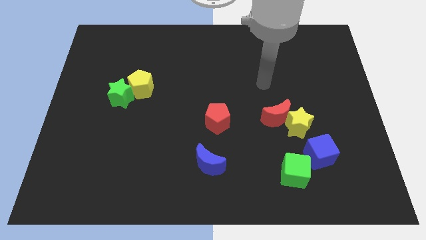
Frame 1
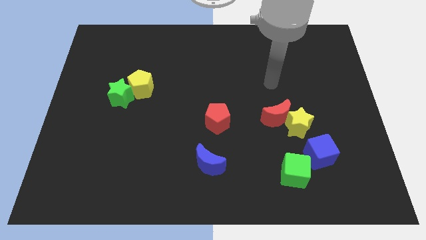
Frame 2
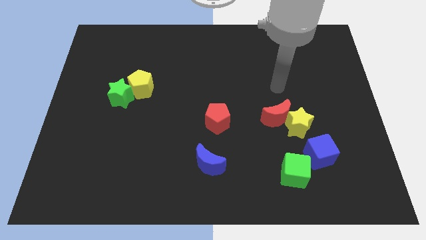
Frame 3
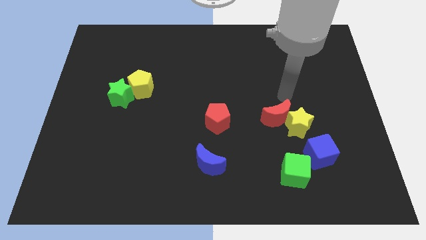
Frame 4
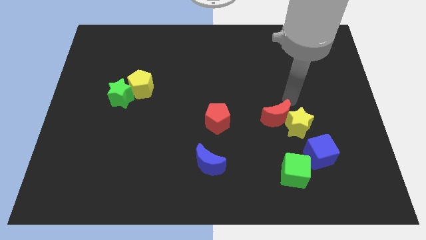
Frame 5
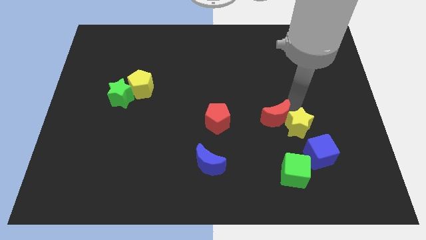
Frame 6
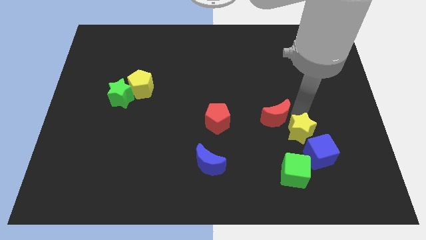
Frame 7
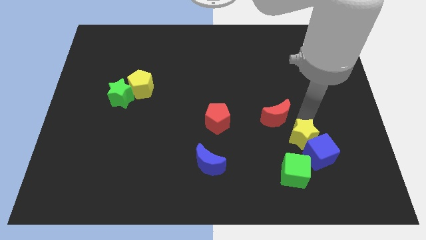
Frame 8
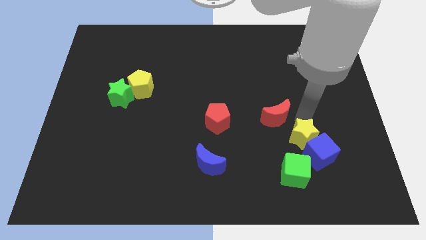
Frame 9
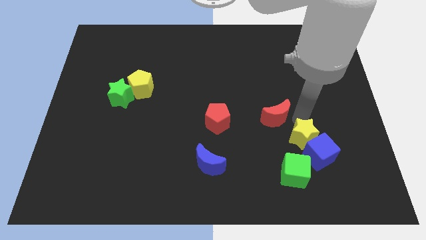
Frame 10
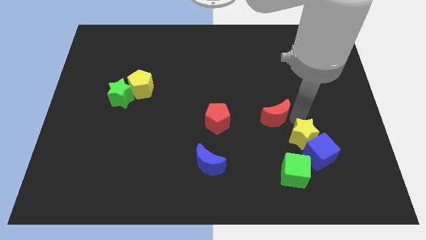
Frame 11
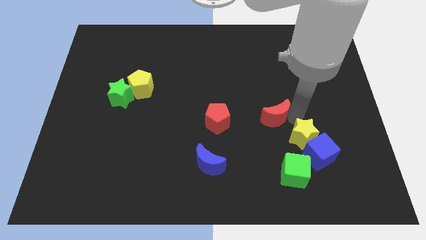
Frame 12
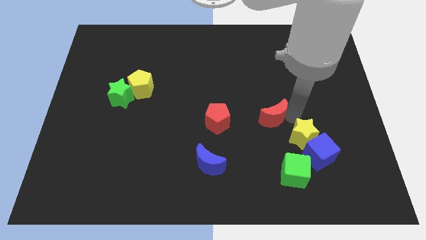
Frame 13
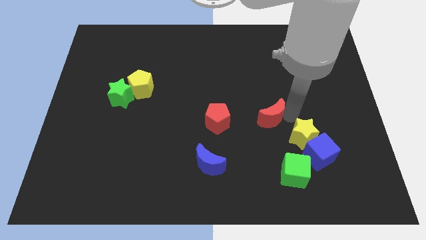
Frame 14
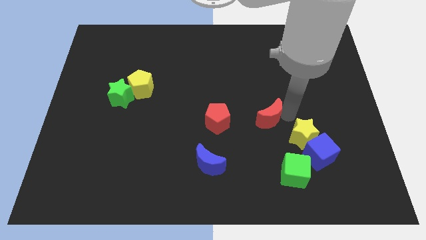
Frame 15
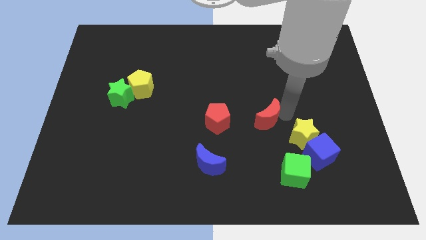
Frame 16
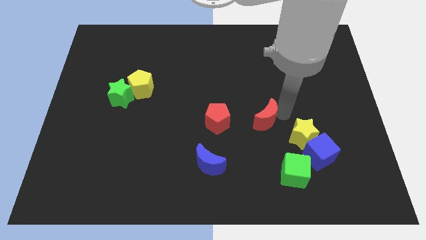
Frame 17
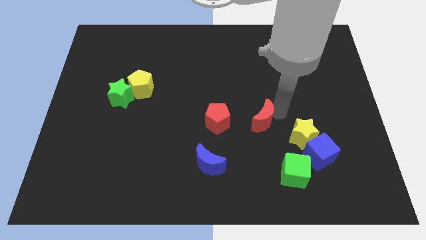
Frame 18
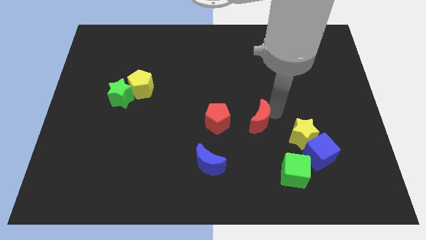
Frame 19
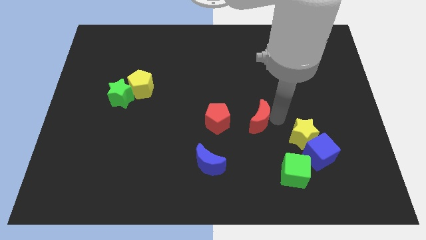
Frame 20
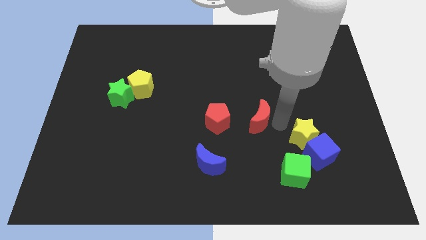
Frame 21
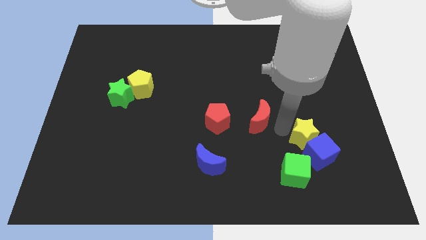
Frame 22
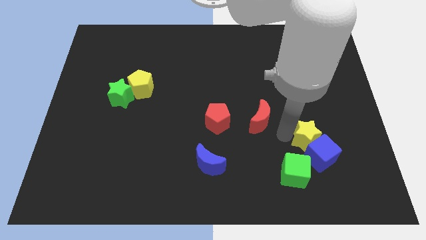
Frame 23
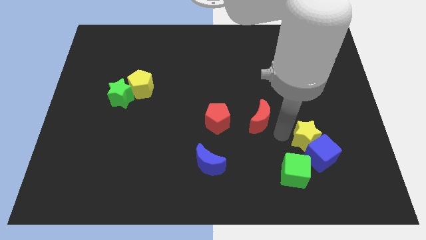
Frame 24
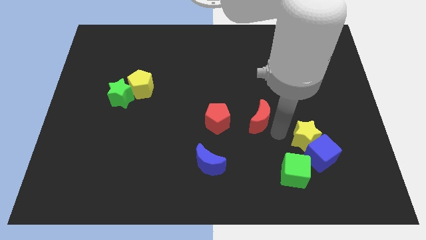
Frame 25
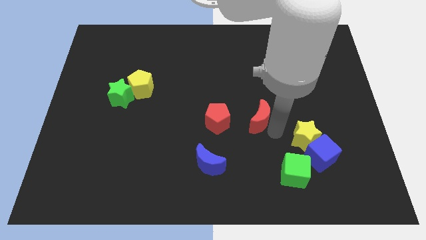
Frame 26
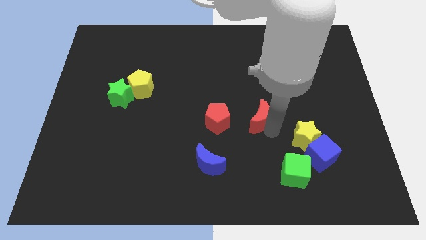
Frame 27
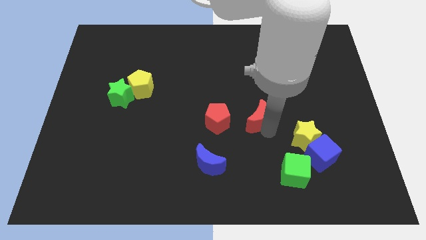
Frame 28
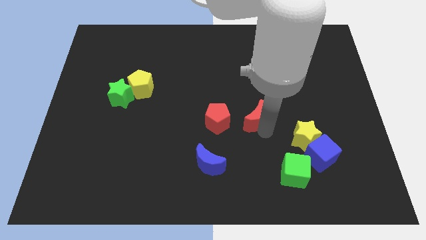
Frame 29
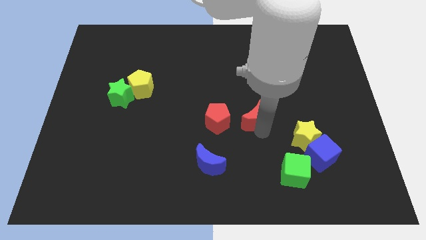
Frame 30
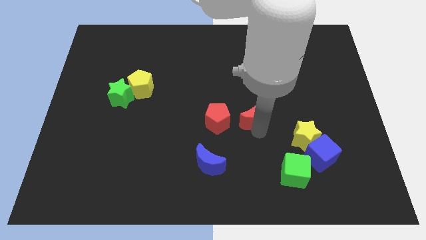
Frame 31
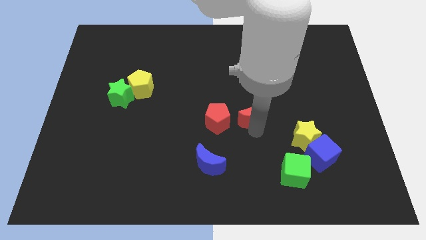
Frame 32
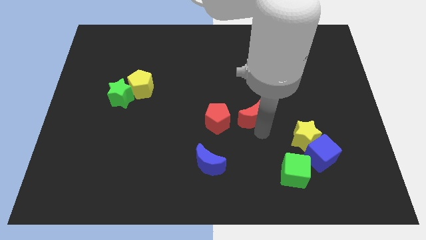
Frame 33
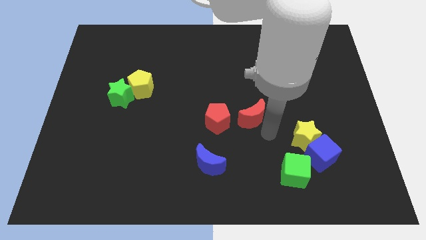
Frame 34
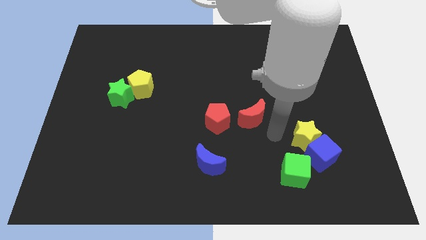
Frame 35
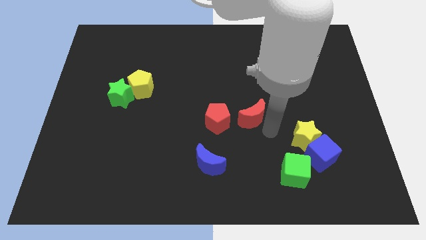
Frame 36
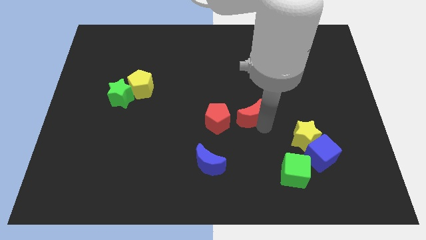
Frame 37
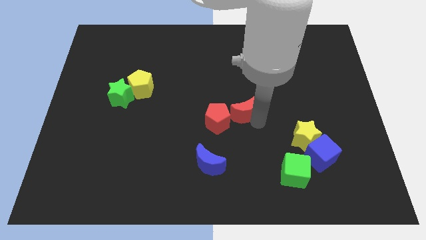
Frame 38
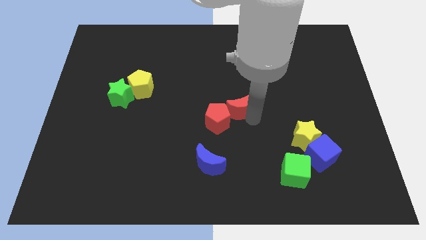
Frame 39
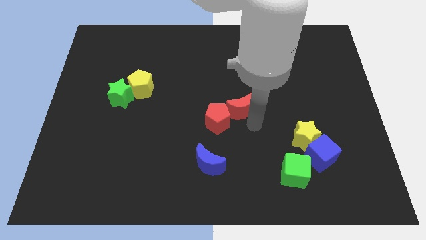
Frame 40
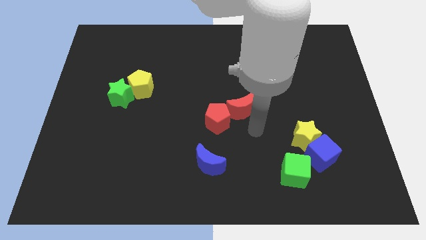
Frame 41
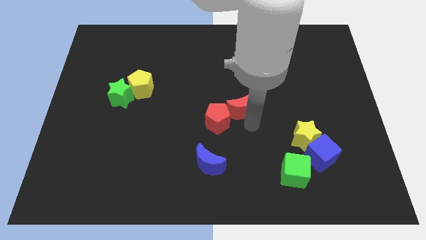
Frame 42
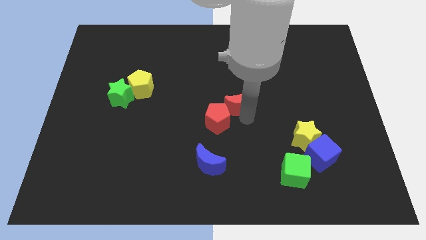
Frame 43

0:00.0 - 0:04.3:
push the red moon upwards and left slightly

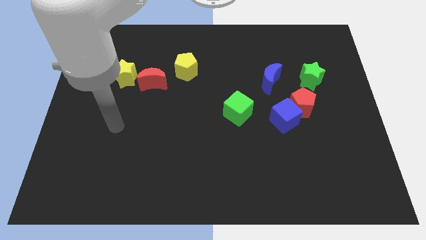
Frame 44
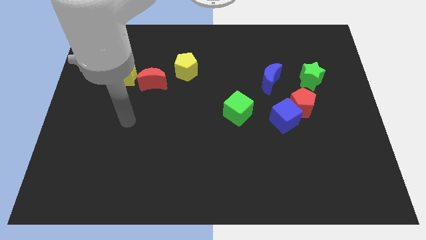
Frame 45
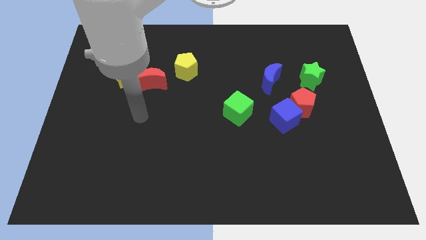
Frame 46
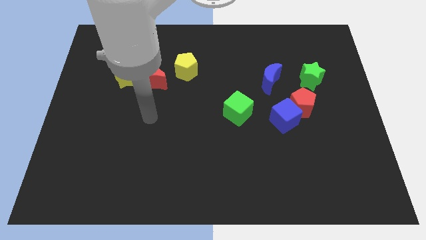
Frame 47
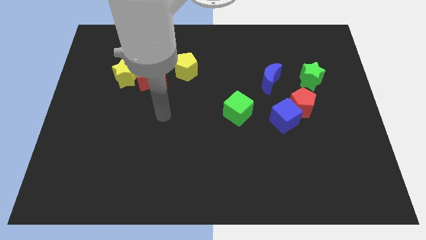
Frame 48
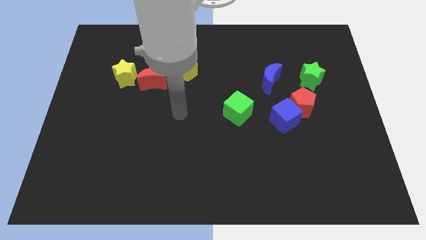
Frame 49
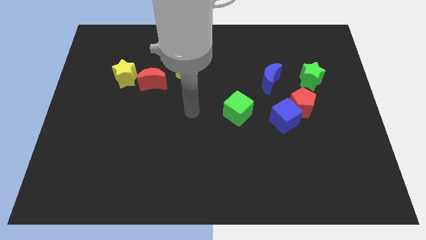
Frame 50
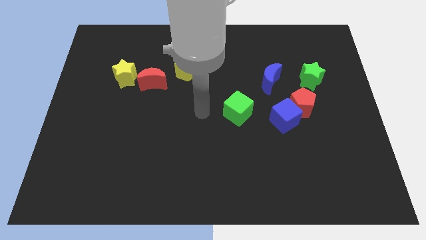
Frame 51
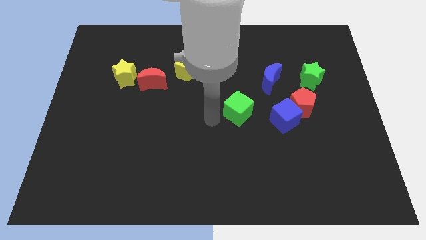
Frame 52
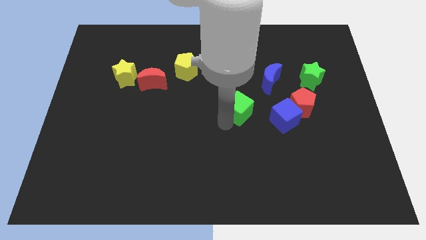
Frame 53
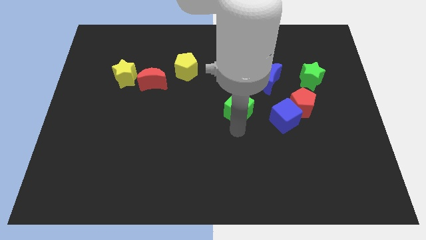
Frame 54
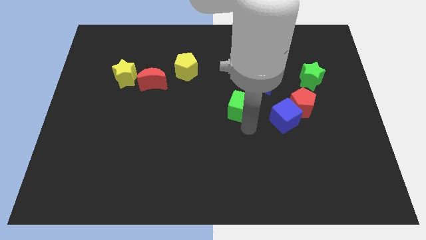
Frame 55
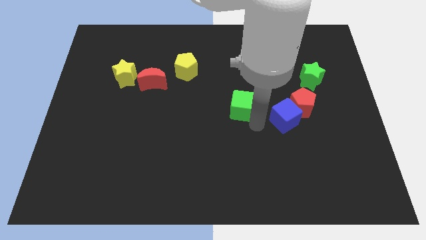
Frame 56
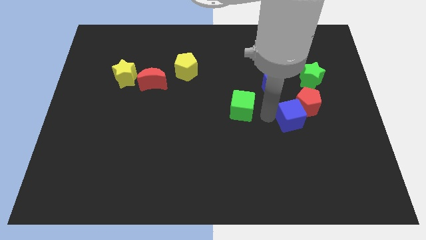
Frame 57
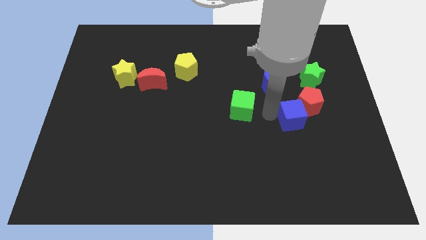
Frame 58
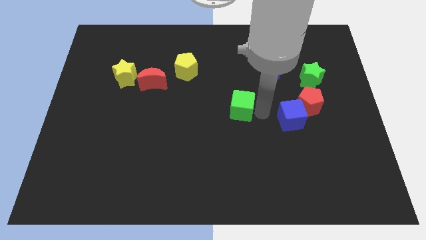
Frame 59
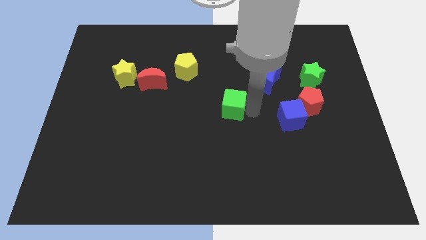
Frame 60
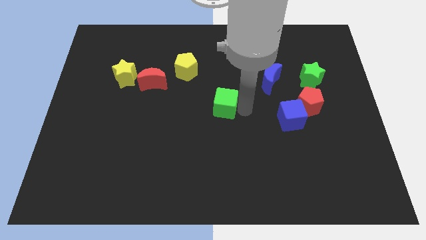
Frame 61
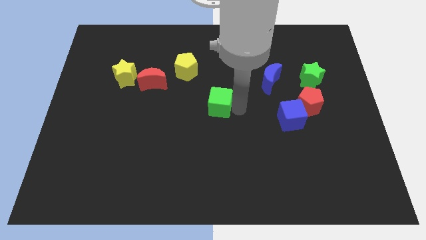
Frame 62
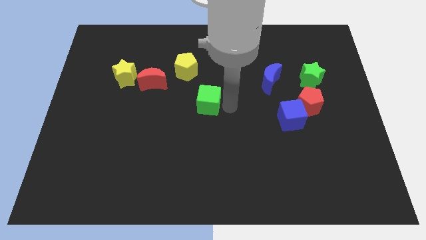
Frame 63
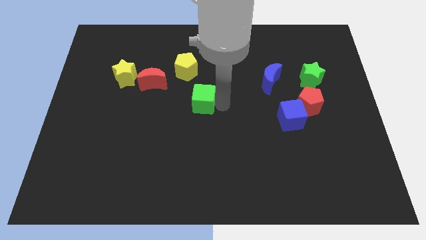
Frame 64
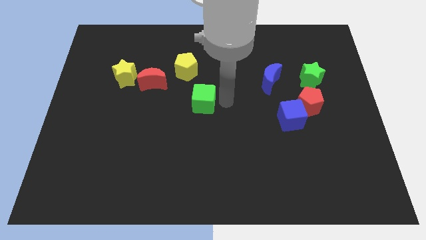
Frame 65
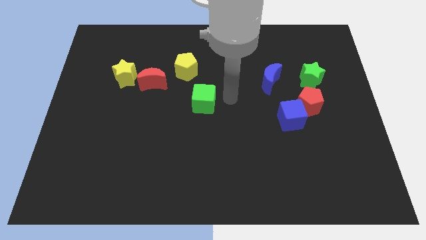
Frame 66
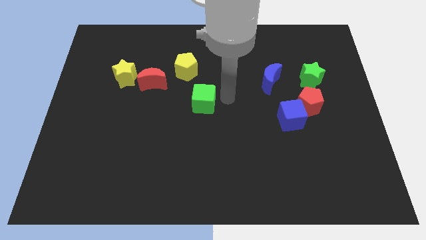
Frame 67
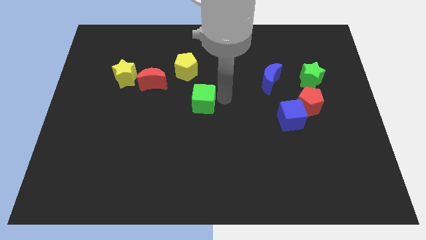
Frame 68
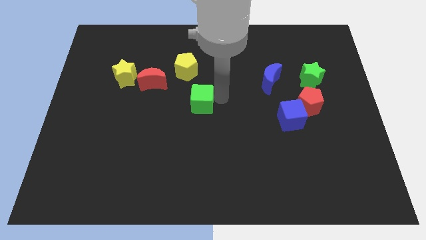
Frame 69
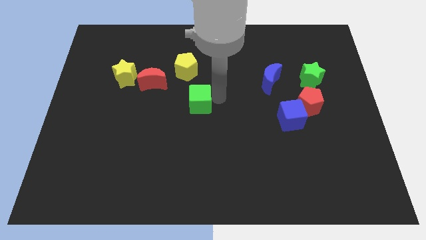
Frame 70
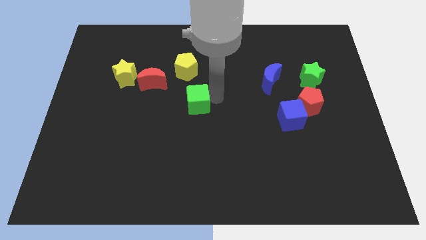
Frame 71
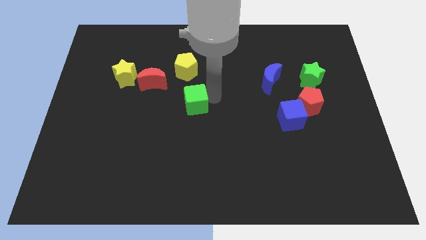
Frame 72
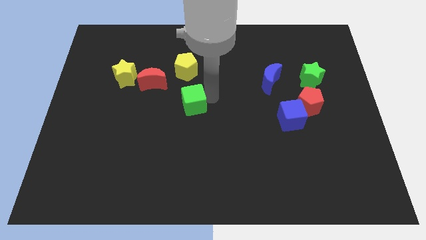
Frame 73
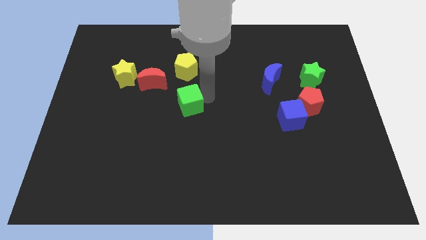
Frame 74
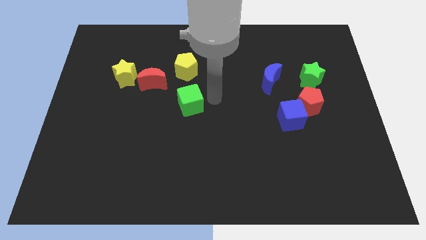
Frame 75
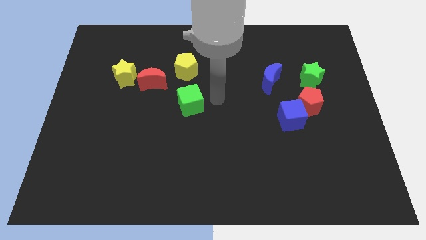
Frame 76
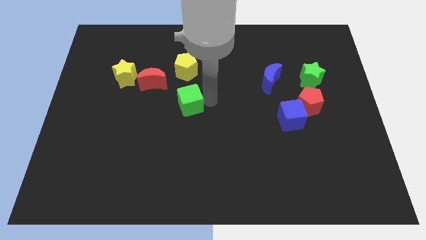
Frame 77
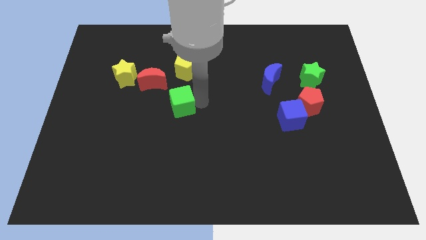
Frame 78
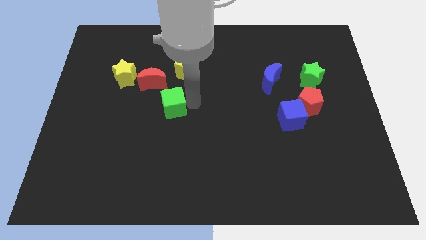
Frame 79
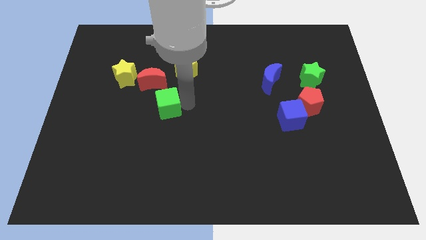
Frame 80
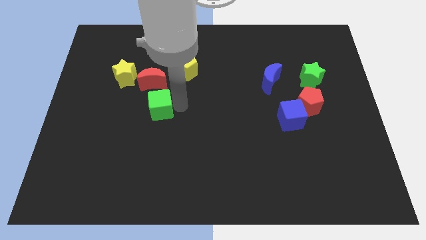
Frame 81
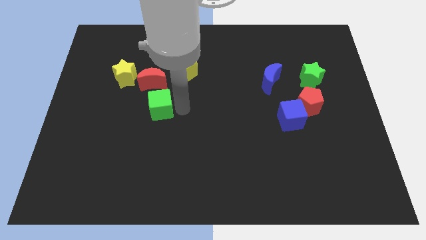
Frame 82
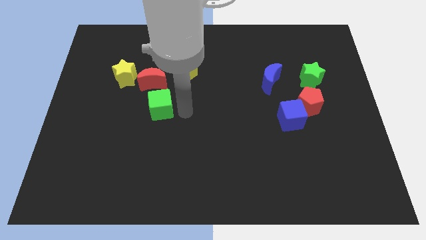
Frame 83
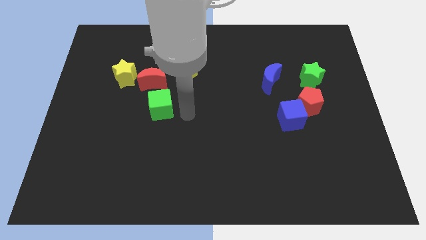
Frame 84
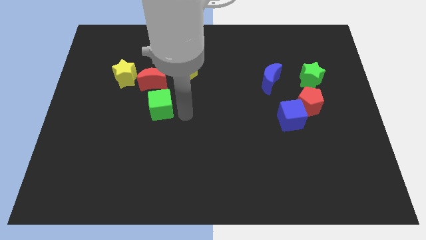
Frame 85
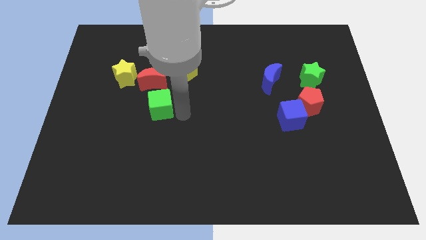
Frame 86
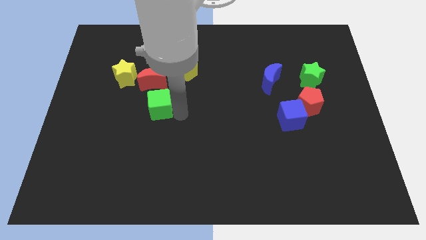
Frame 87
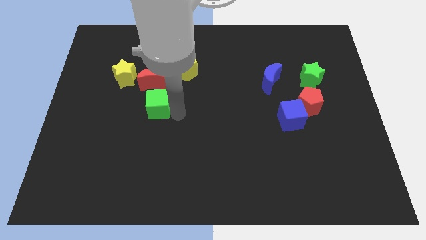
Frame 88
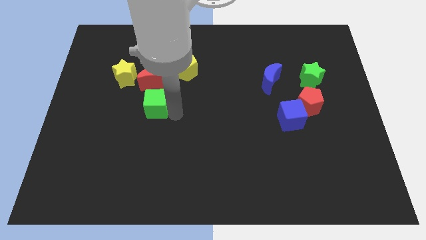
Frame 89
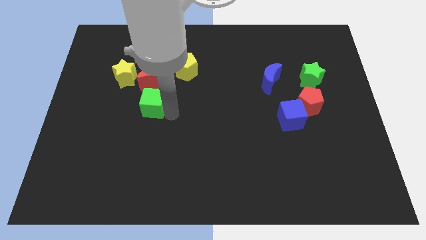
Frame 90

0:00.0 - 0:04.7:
push the green cube to the left
